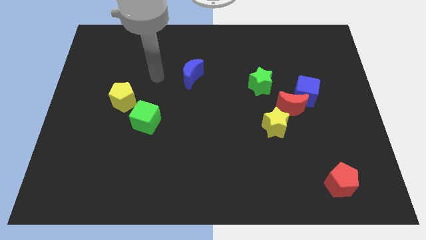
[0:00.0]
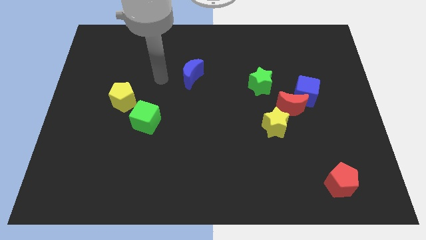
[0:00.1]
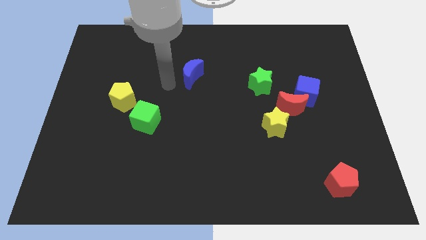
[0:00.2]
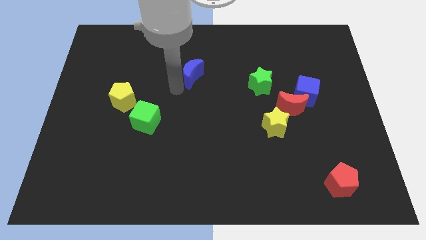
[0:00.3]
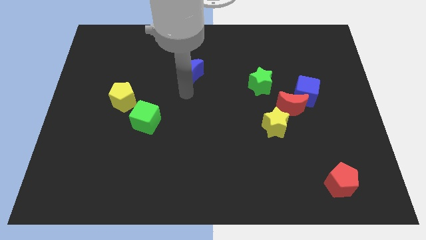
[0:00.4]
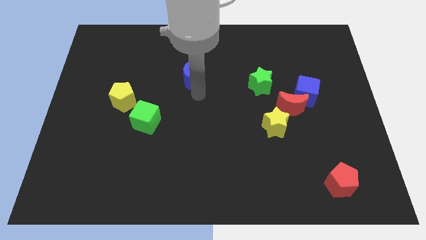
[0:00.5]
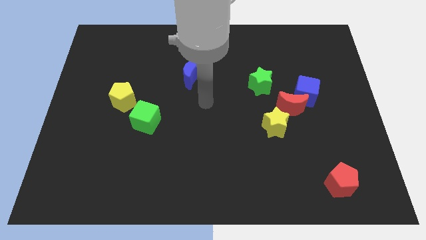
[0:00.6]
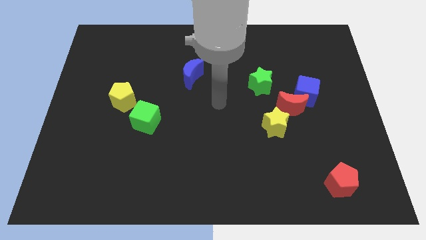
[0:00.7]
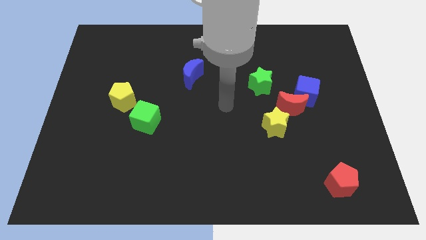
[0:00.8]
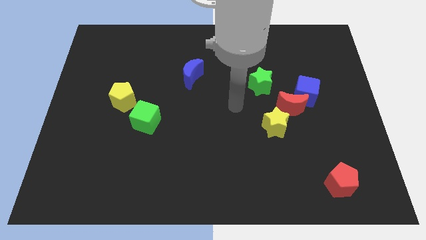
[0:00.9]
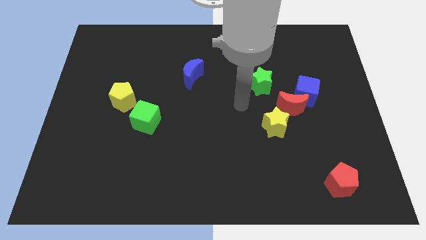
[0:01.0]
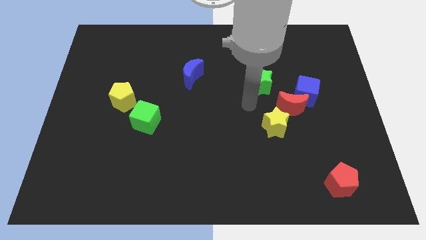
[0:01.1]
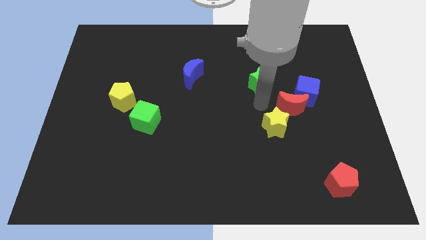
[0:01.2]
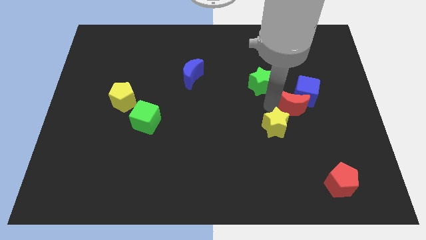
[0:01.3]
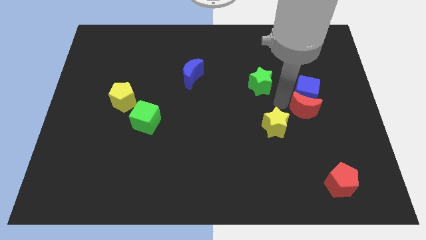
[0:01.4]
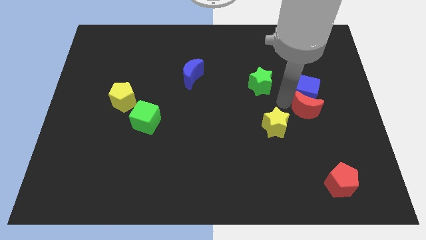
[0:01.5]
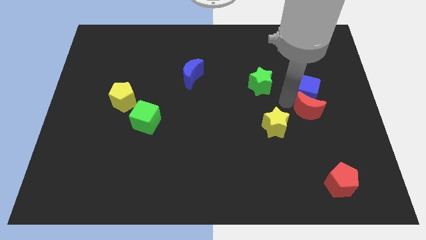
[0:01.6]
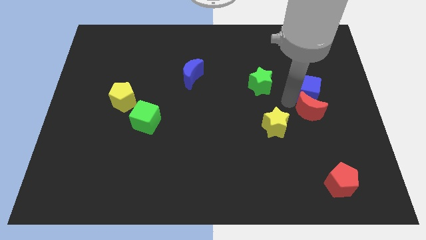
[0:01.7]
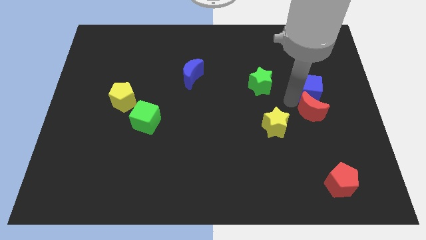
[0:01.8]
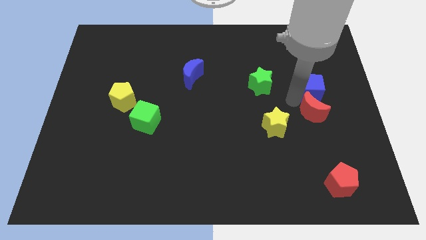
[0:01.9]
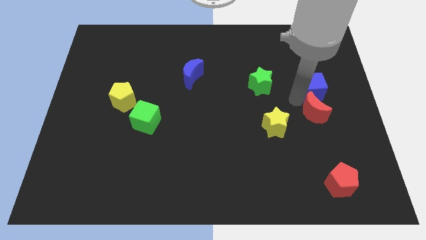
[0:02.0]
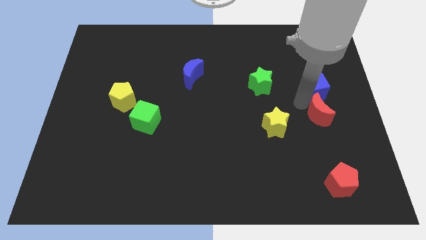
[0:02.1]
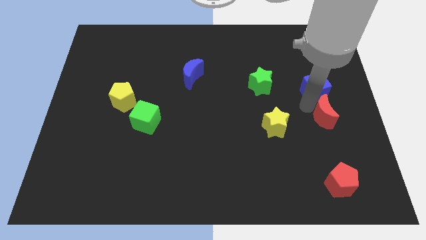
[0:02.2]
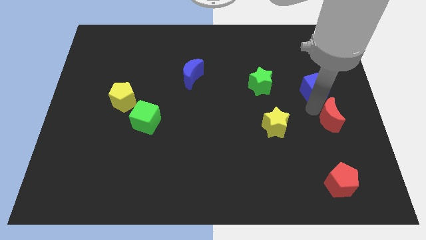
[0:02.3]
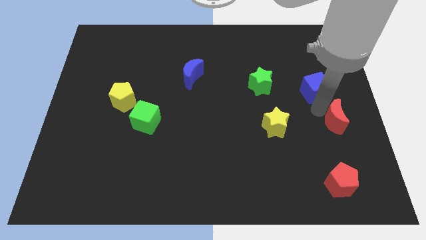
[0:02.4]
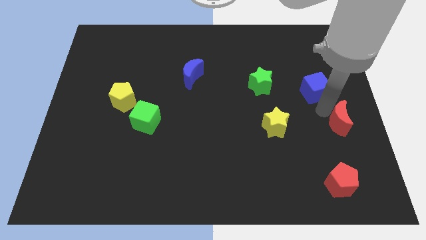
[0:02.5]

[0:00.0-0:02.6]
move the blue cube away from the red moon

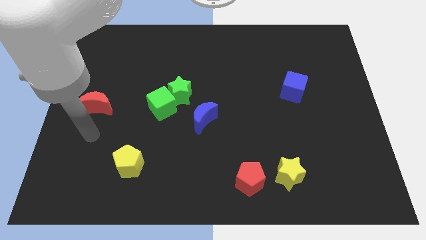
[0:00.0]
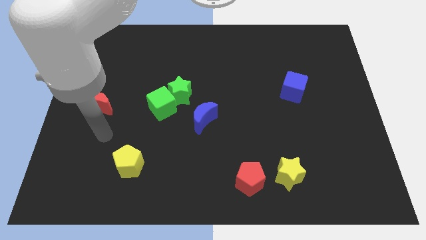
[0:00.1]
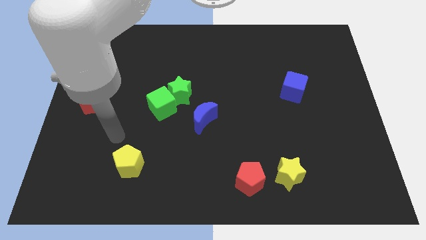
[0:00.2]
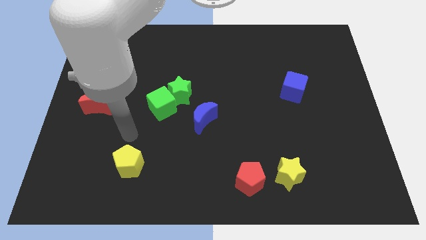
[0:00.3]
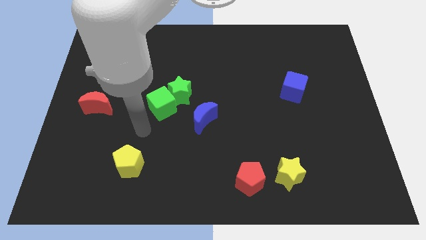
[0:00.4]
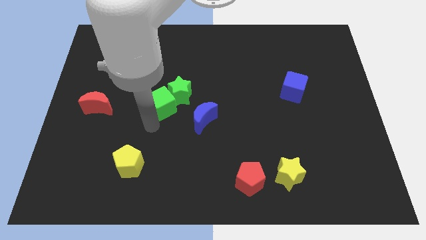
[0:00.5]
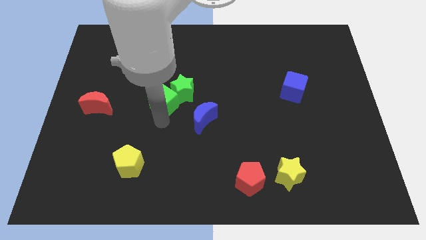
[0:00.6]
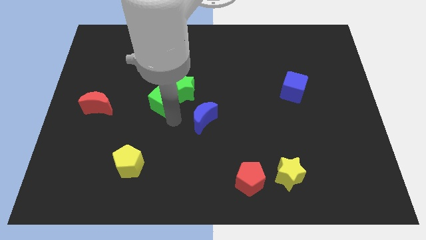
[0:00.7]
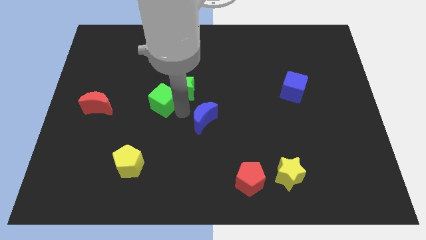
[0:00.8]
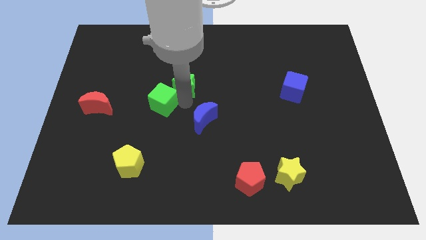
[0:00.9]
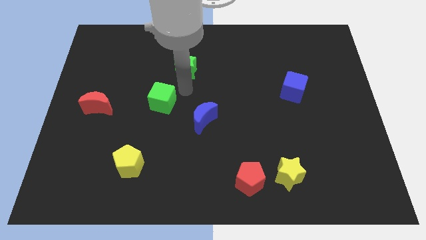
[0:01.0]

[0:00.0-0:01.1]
move the green cube away from the green star

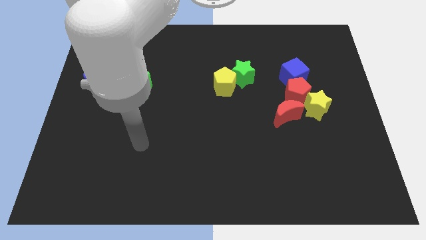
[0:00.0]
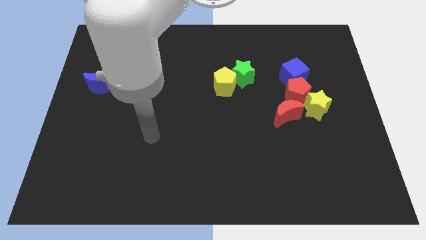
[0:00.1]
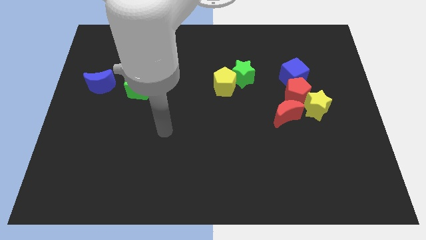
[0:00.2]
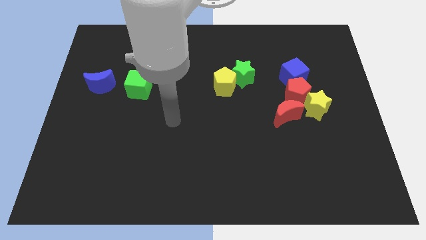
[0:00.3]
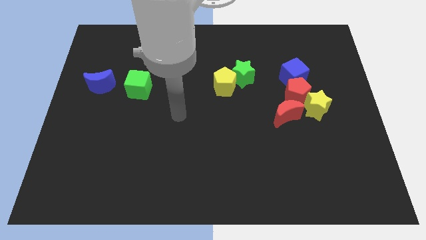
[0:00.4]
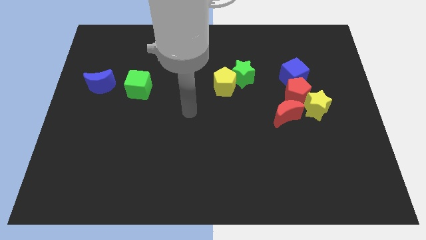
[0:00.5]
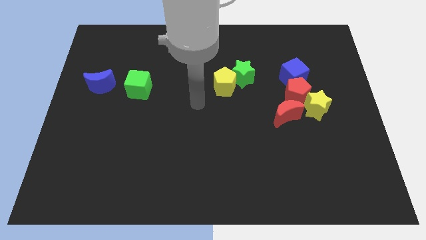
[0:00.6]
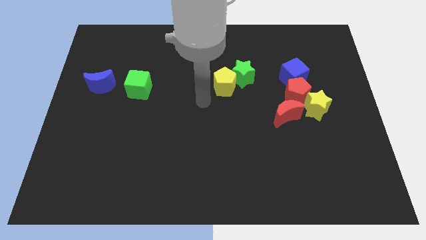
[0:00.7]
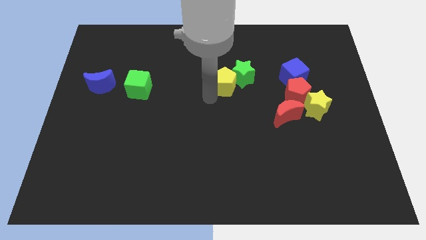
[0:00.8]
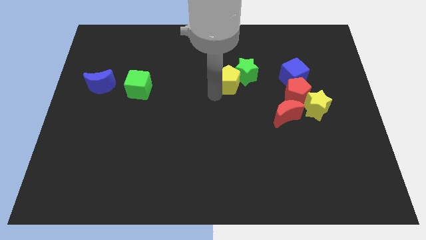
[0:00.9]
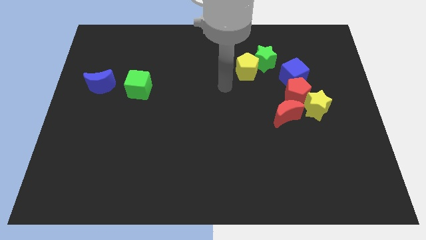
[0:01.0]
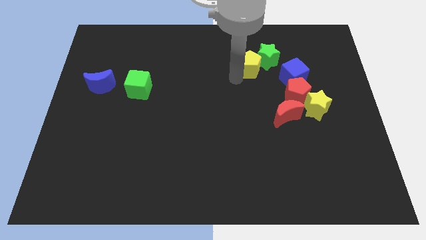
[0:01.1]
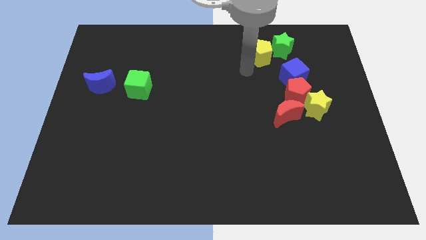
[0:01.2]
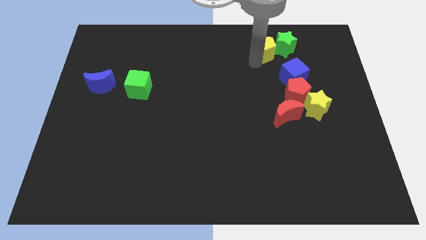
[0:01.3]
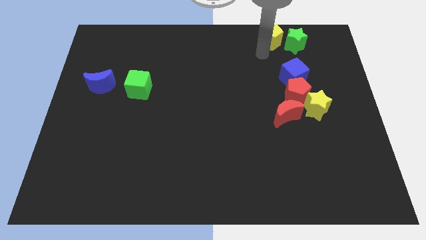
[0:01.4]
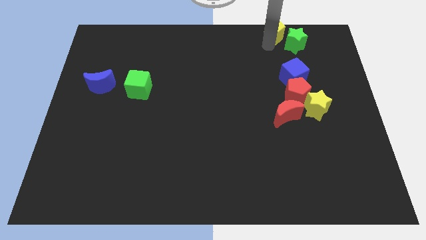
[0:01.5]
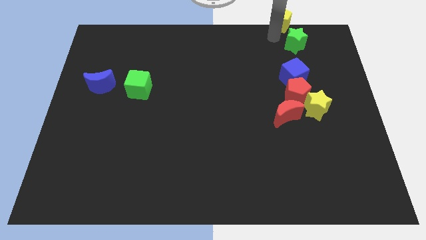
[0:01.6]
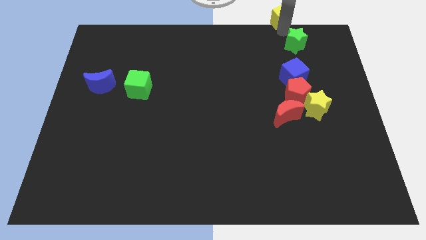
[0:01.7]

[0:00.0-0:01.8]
pull the green star apart from the yellow pentagon

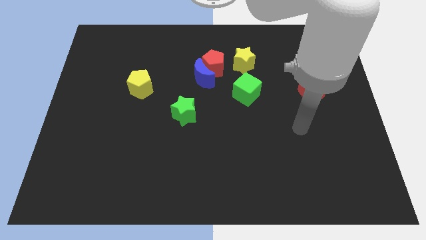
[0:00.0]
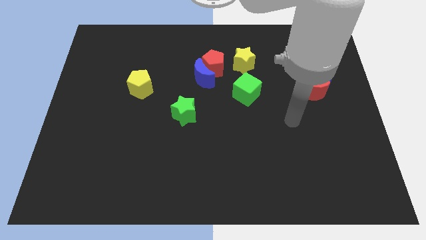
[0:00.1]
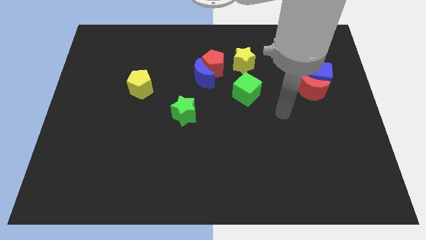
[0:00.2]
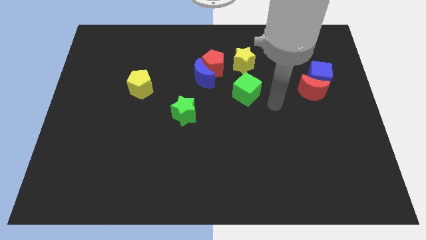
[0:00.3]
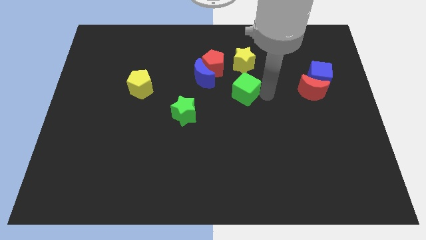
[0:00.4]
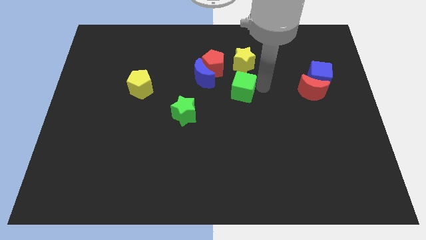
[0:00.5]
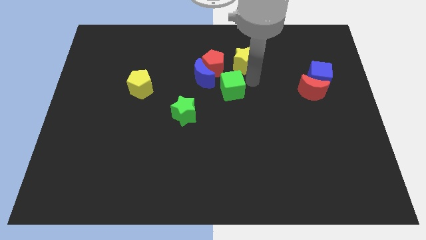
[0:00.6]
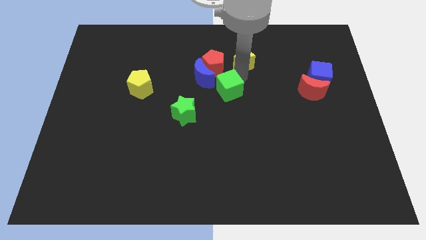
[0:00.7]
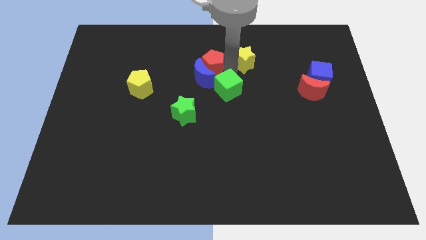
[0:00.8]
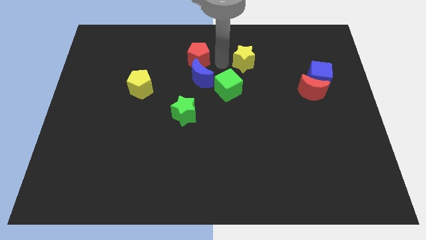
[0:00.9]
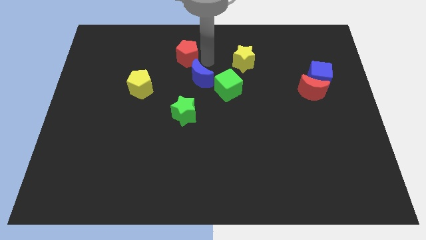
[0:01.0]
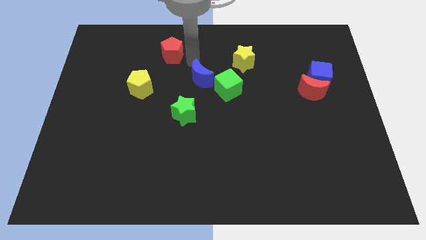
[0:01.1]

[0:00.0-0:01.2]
move the blue moon away from the red pentagon

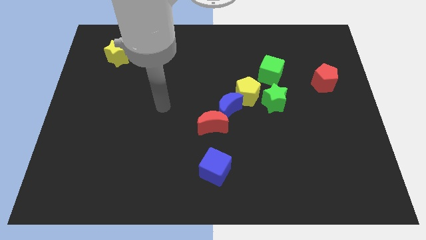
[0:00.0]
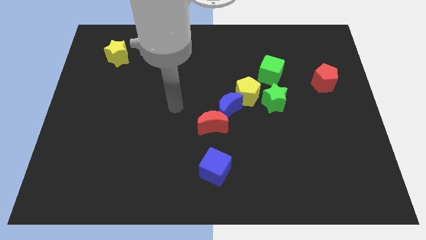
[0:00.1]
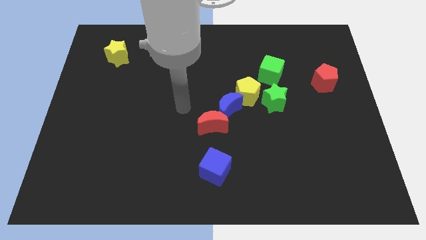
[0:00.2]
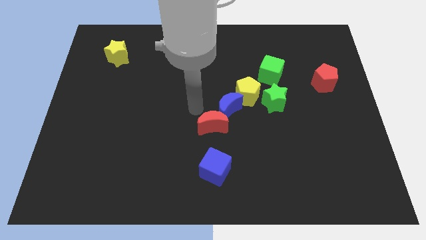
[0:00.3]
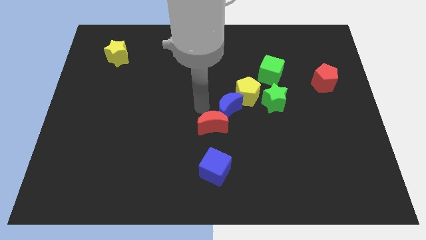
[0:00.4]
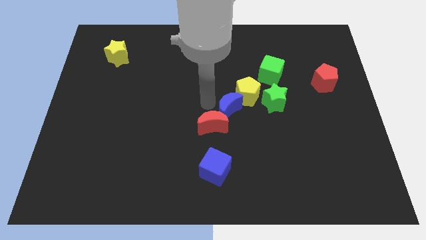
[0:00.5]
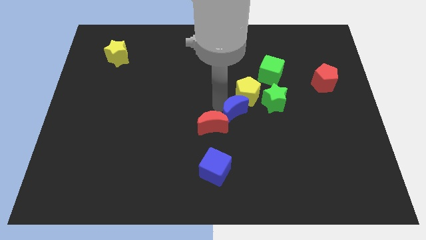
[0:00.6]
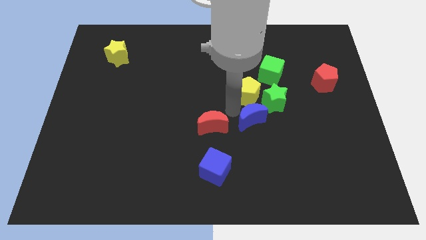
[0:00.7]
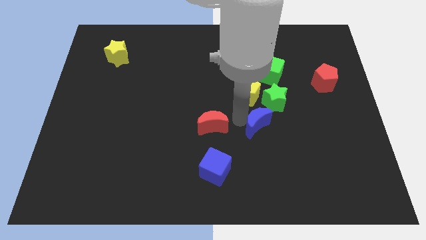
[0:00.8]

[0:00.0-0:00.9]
separate the red moon from the blue moon

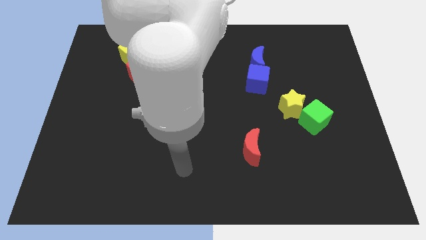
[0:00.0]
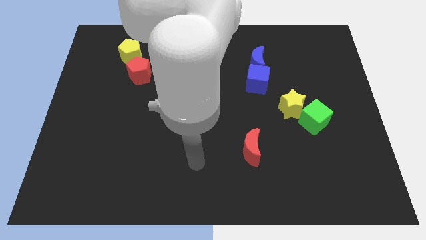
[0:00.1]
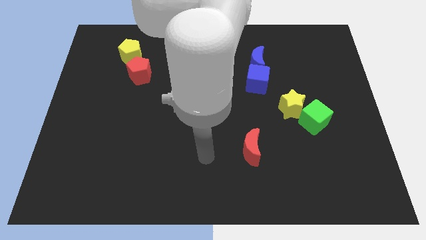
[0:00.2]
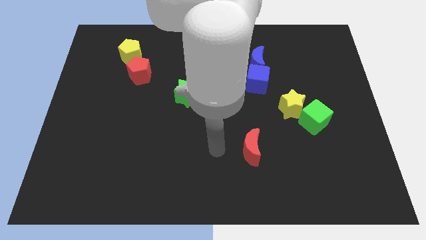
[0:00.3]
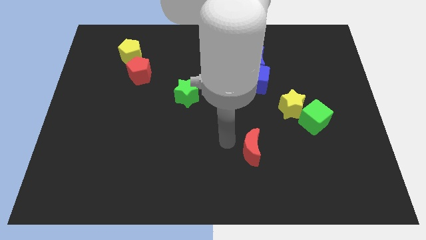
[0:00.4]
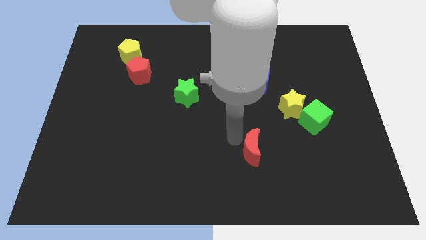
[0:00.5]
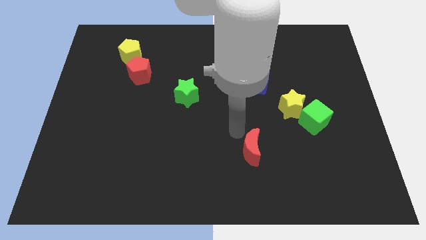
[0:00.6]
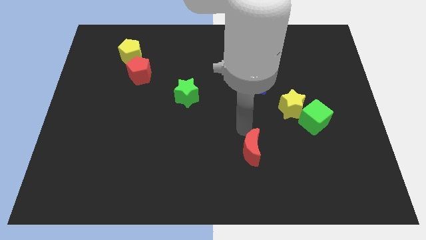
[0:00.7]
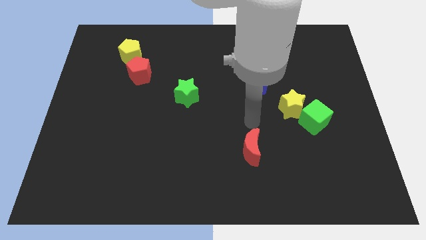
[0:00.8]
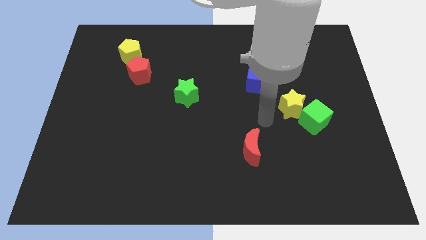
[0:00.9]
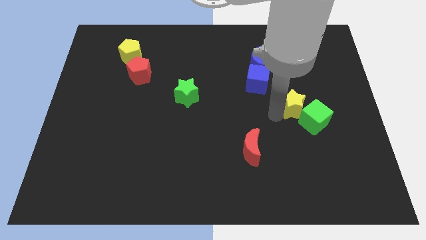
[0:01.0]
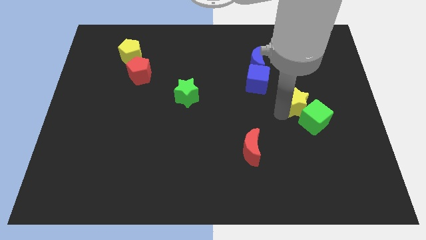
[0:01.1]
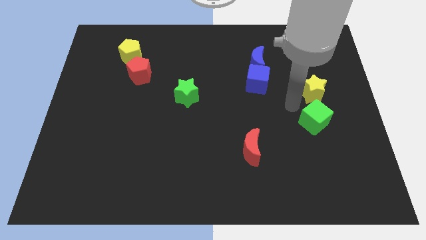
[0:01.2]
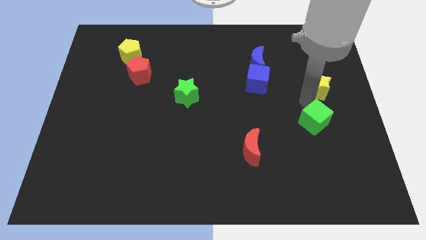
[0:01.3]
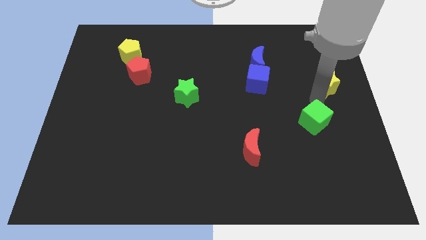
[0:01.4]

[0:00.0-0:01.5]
pull the green cube apart from the yellow star
